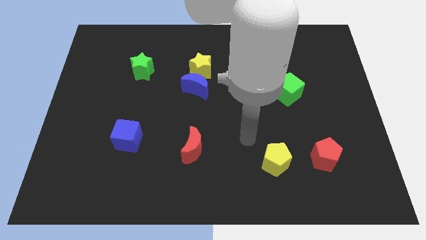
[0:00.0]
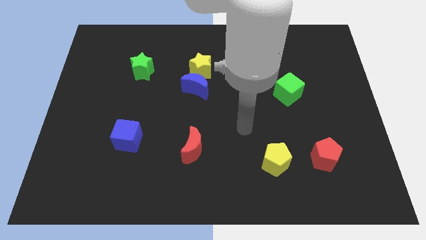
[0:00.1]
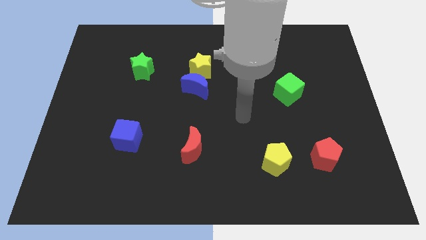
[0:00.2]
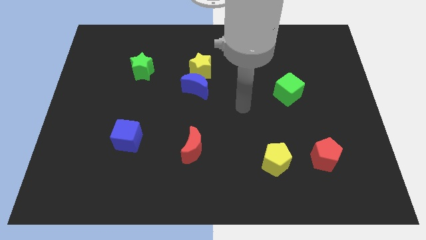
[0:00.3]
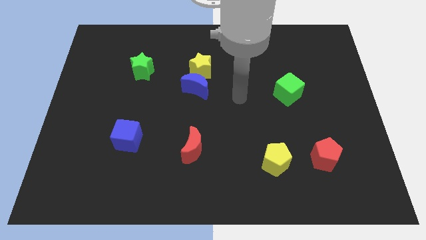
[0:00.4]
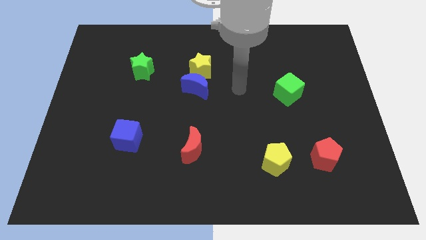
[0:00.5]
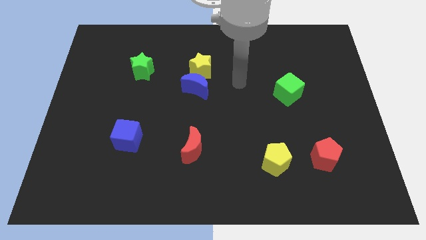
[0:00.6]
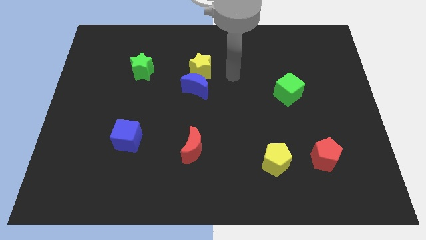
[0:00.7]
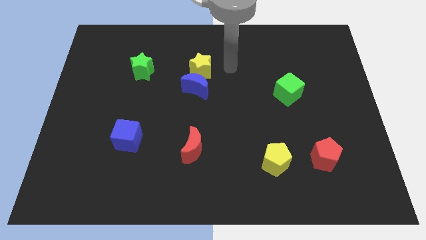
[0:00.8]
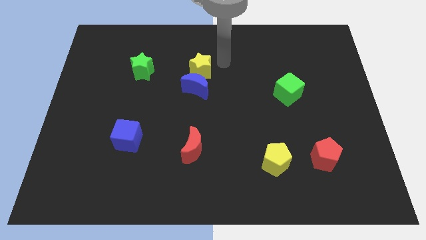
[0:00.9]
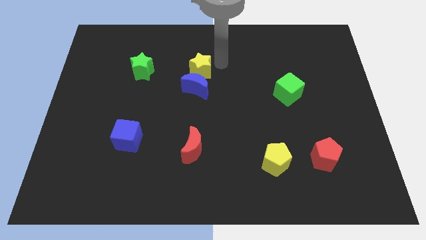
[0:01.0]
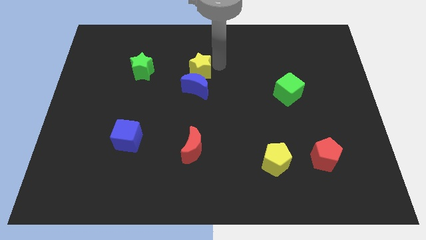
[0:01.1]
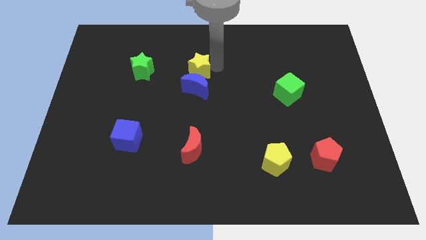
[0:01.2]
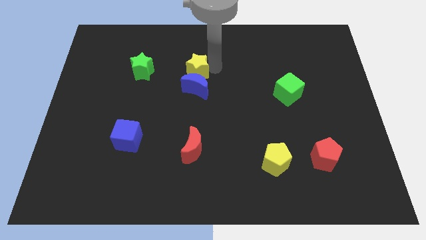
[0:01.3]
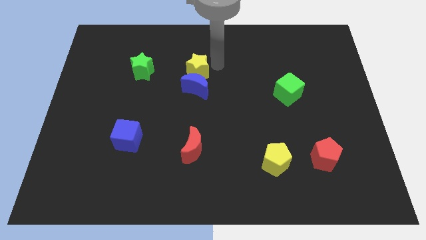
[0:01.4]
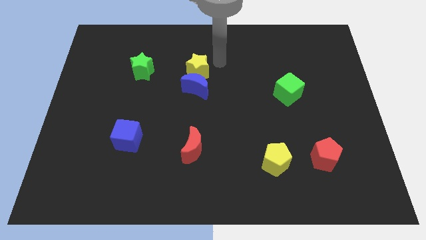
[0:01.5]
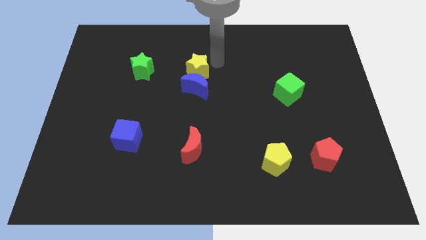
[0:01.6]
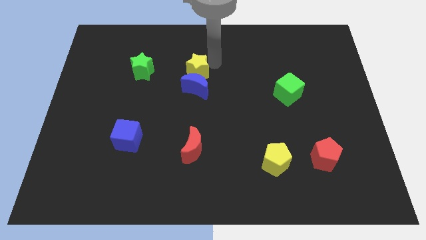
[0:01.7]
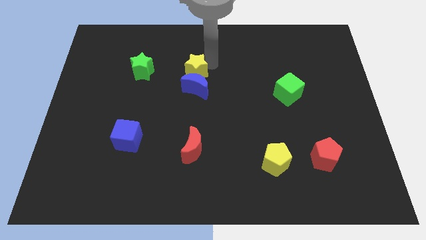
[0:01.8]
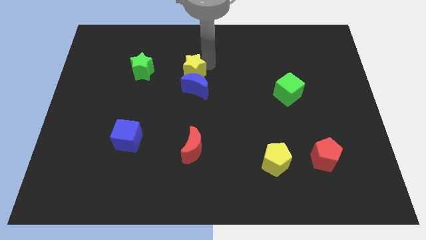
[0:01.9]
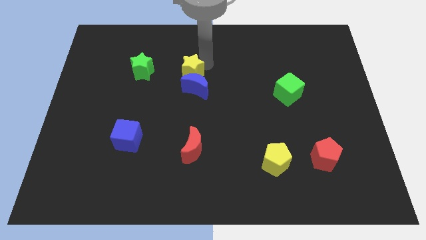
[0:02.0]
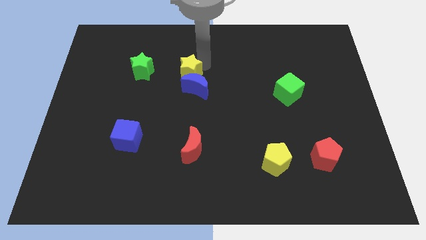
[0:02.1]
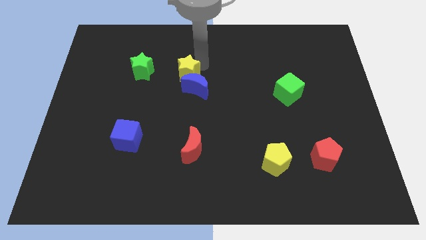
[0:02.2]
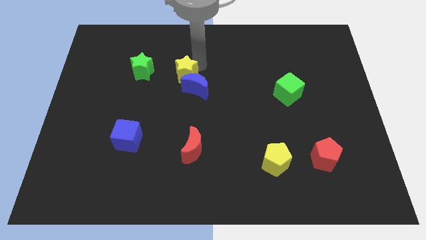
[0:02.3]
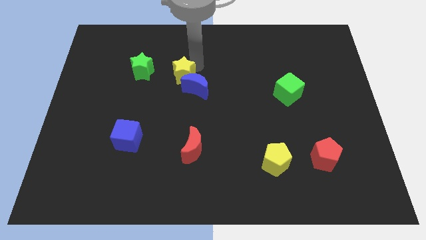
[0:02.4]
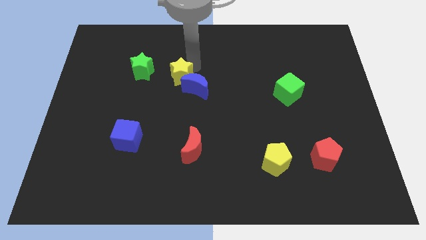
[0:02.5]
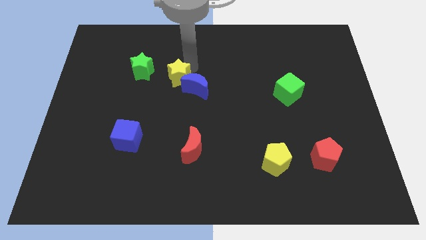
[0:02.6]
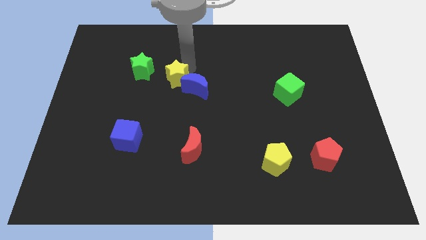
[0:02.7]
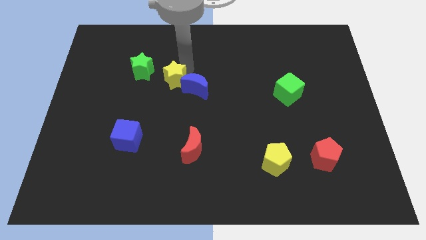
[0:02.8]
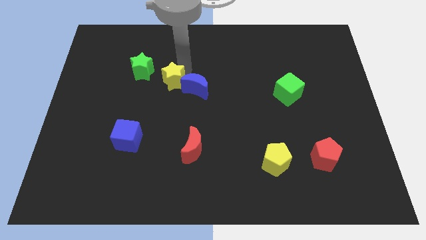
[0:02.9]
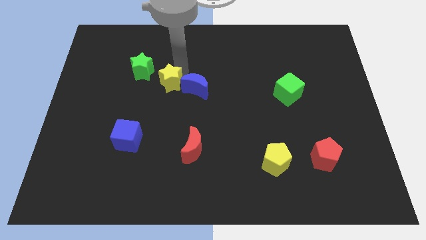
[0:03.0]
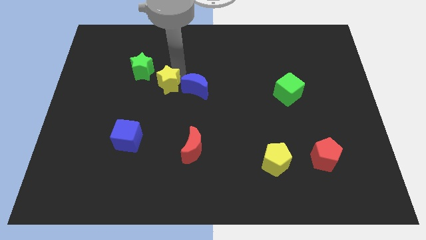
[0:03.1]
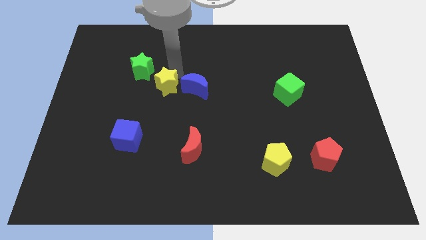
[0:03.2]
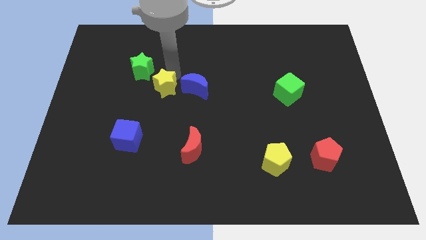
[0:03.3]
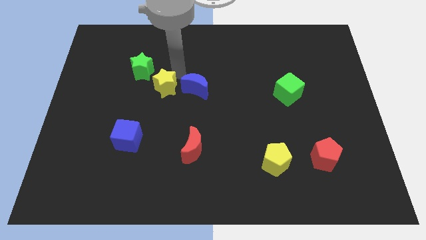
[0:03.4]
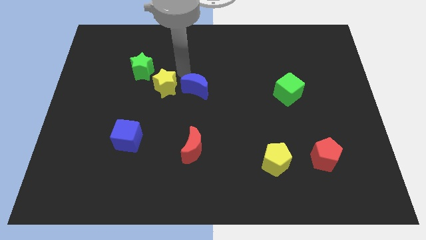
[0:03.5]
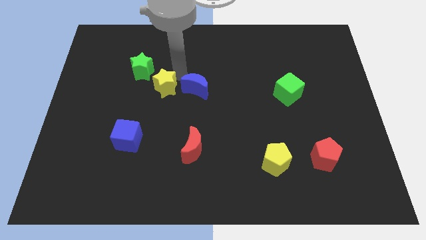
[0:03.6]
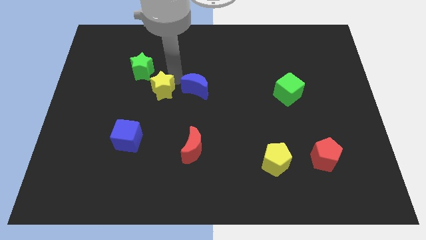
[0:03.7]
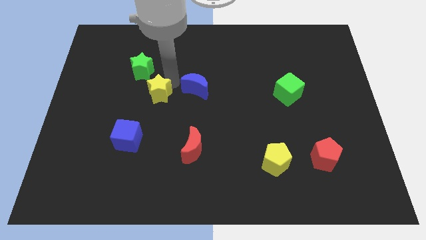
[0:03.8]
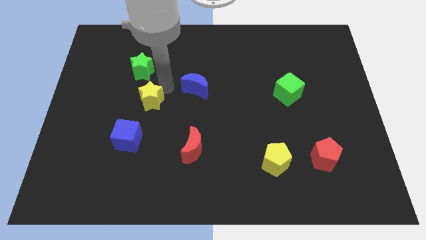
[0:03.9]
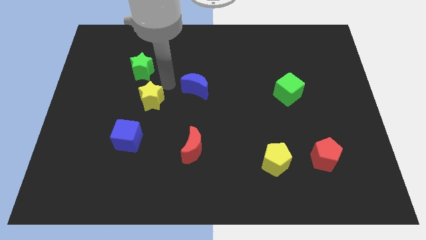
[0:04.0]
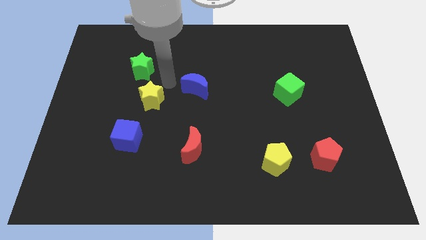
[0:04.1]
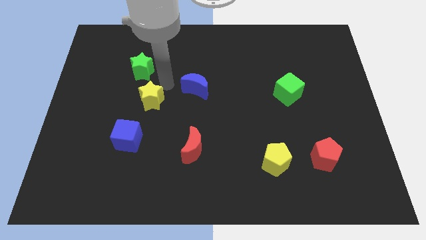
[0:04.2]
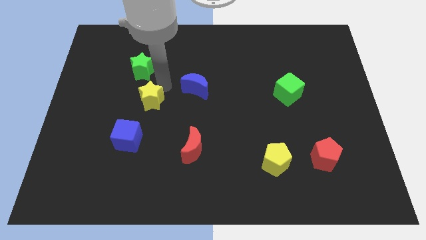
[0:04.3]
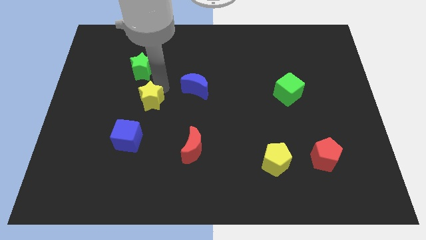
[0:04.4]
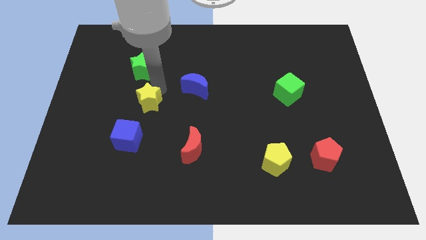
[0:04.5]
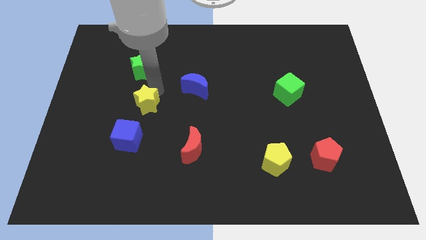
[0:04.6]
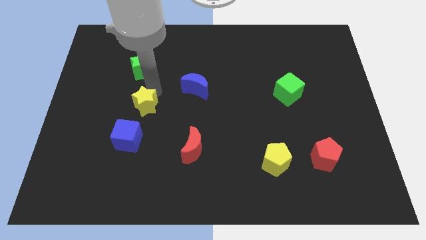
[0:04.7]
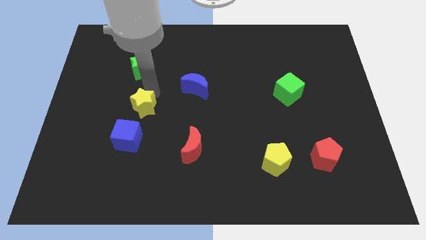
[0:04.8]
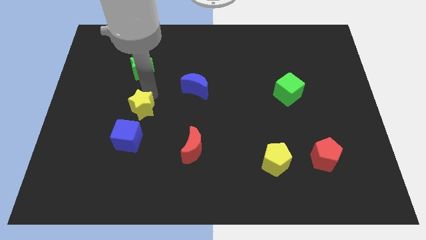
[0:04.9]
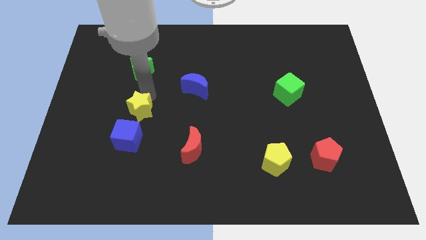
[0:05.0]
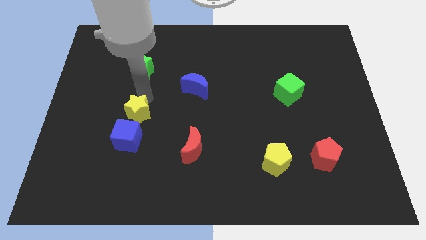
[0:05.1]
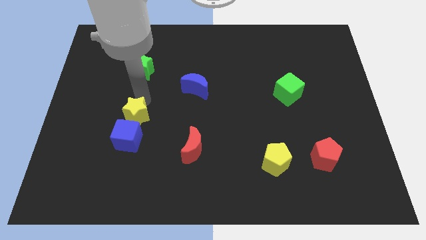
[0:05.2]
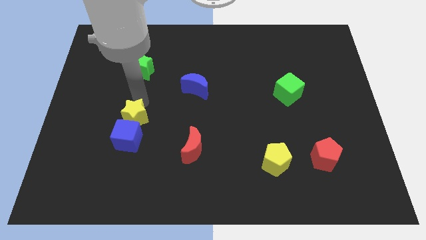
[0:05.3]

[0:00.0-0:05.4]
move the yellow star close to the blue cube

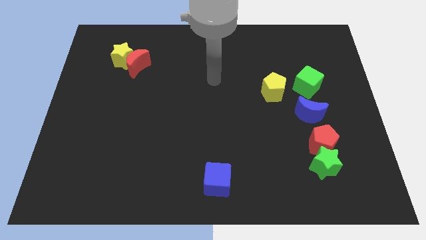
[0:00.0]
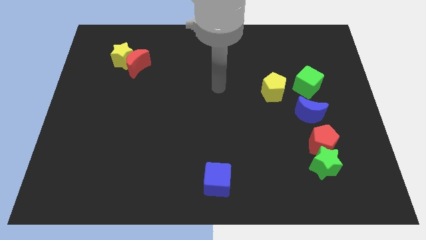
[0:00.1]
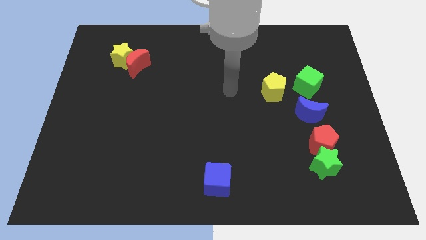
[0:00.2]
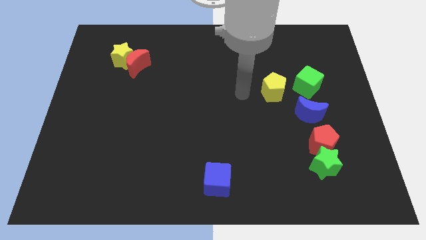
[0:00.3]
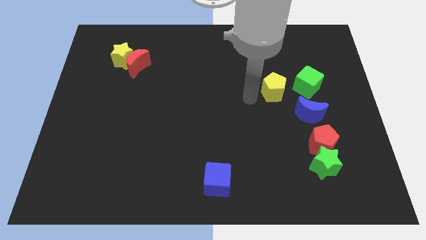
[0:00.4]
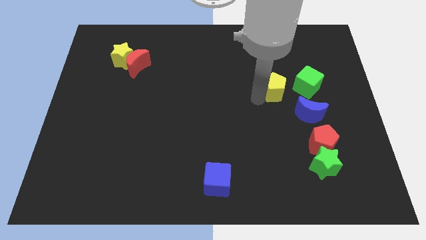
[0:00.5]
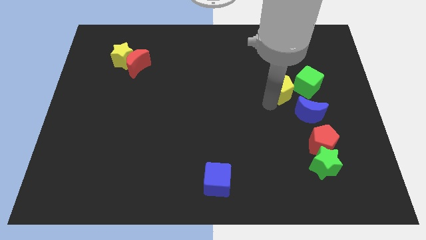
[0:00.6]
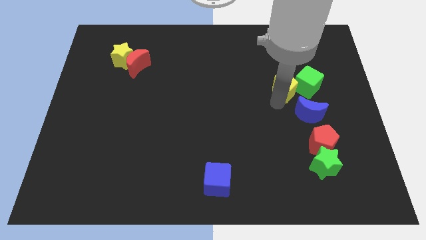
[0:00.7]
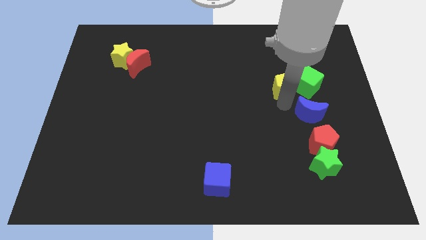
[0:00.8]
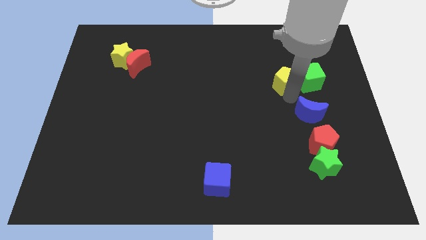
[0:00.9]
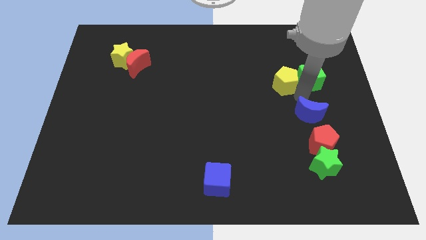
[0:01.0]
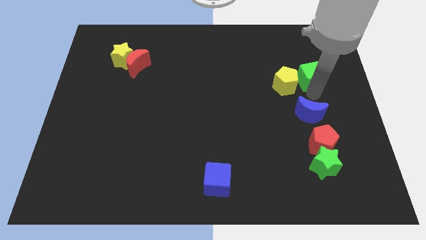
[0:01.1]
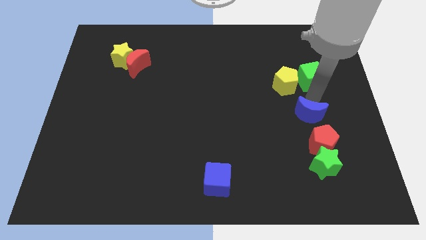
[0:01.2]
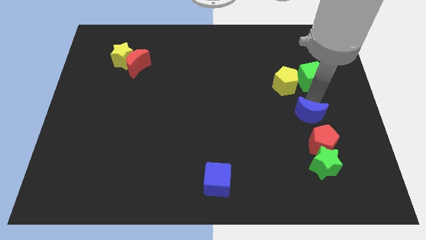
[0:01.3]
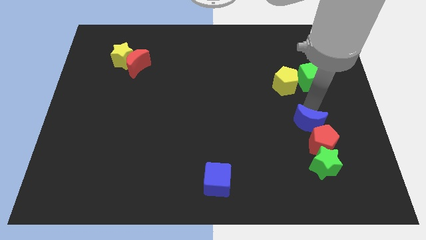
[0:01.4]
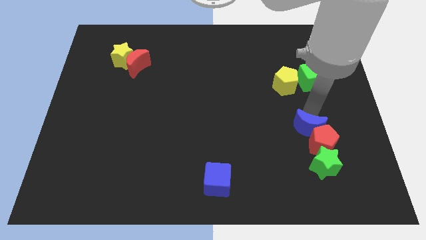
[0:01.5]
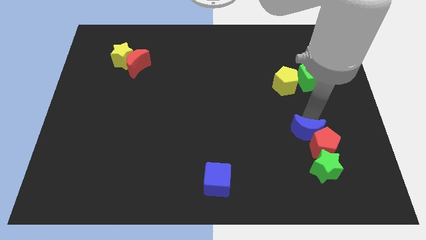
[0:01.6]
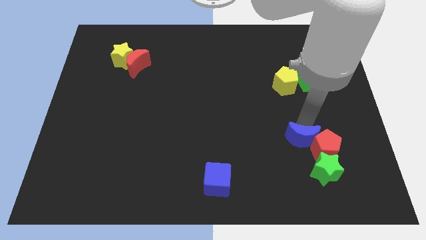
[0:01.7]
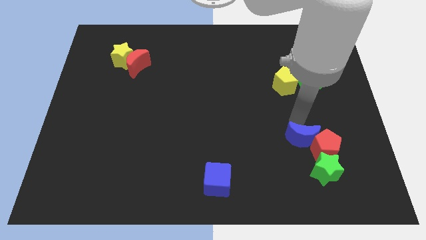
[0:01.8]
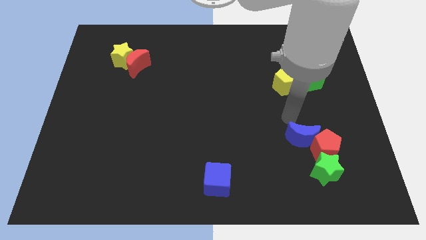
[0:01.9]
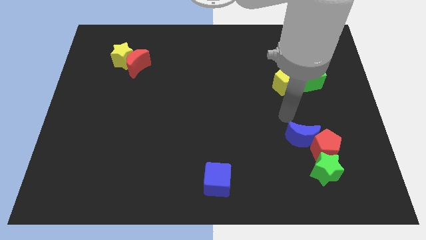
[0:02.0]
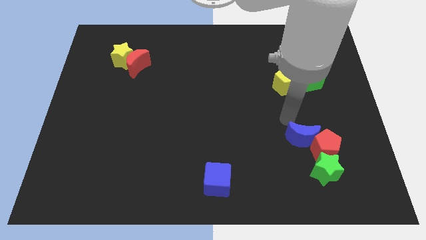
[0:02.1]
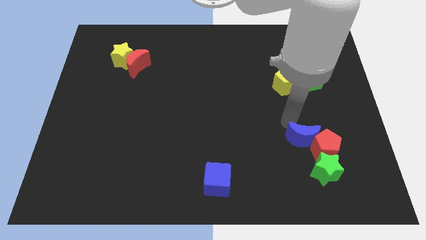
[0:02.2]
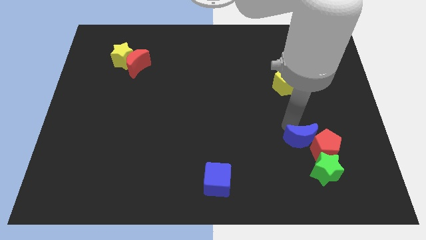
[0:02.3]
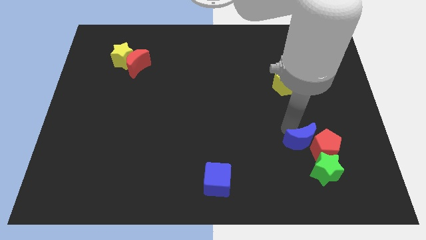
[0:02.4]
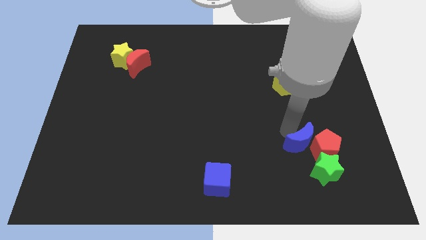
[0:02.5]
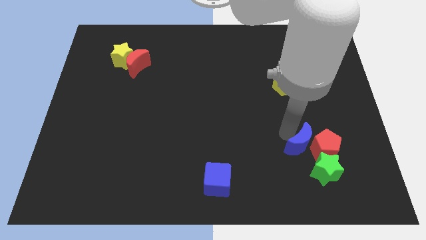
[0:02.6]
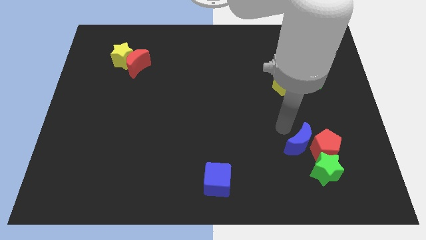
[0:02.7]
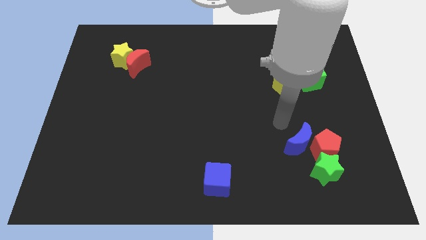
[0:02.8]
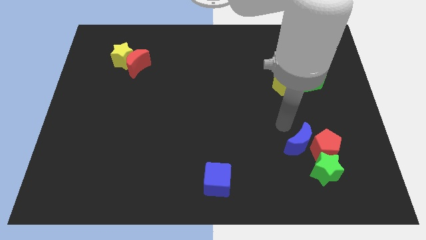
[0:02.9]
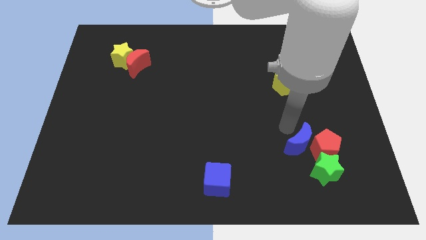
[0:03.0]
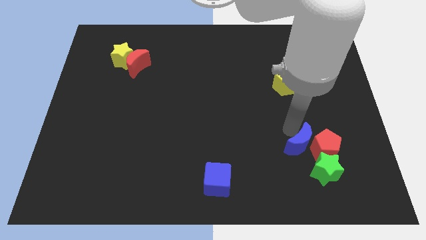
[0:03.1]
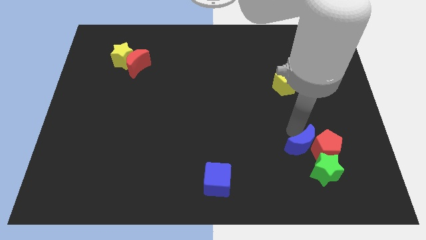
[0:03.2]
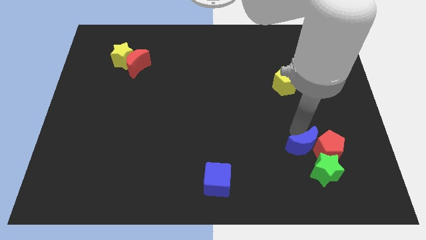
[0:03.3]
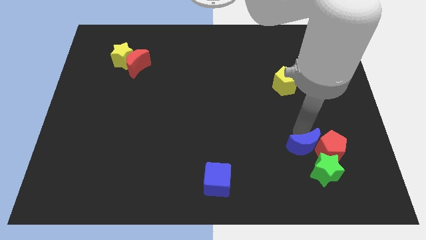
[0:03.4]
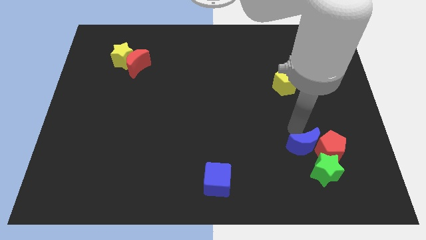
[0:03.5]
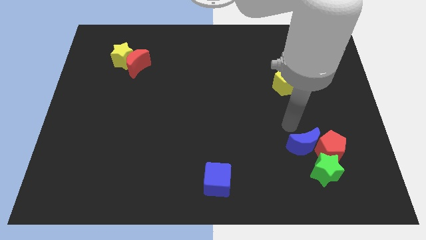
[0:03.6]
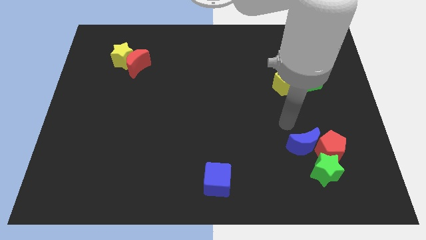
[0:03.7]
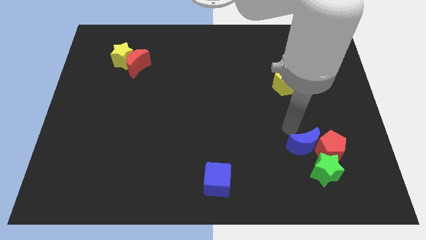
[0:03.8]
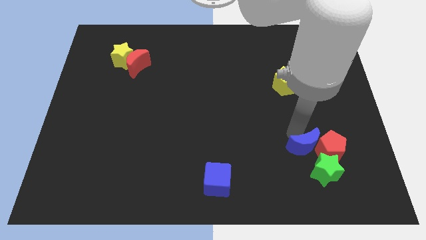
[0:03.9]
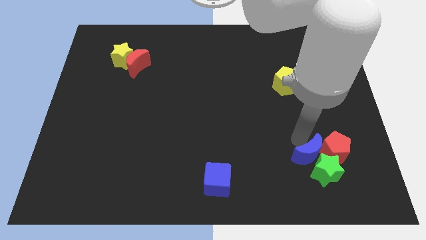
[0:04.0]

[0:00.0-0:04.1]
move the blue moon towards the green star
